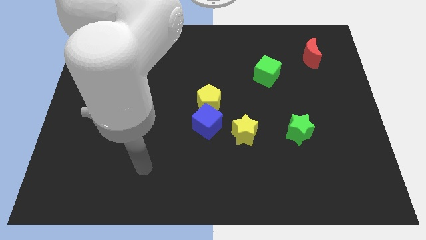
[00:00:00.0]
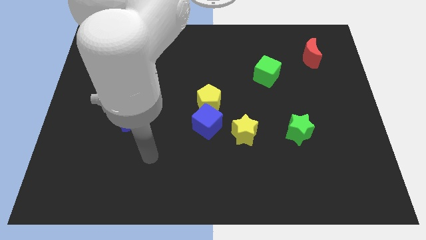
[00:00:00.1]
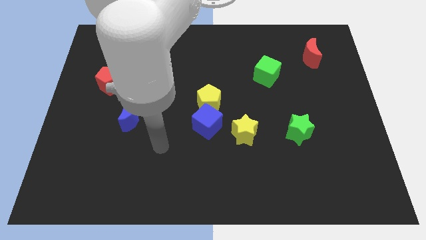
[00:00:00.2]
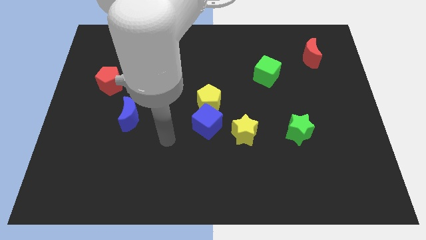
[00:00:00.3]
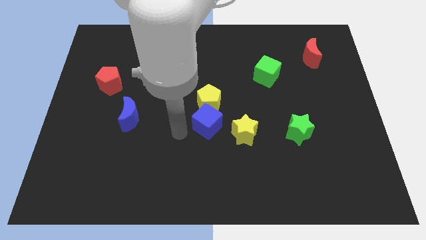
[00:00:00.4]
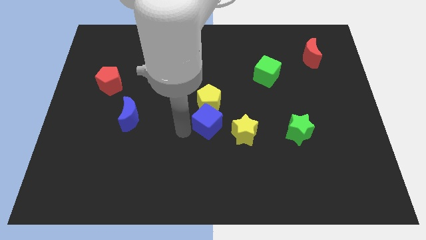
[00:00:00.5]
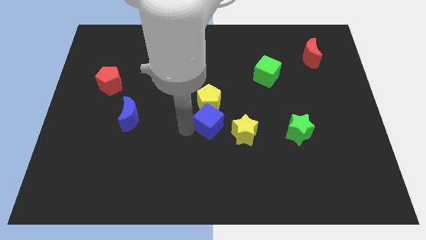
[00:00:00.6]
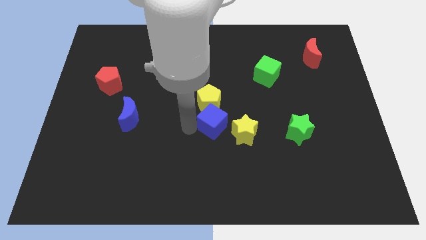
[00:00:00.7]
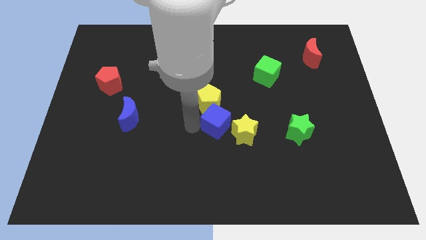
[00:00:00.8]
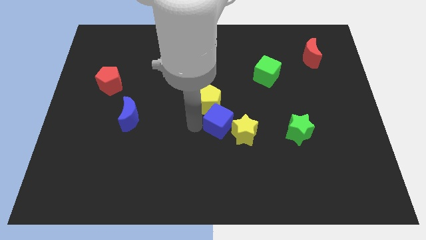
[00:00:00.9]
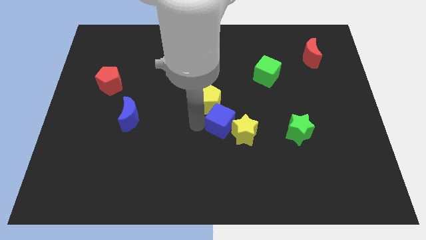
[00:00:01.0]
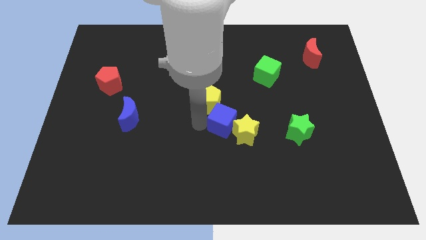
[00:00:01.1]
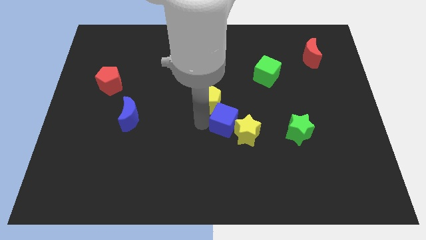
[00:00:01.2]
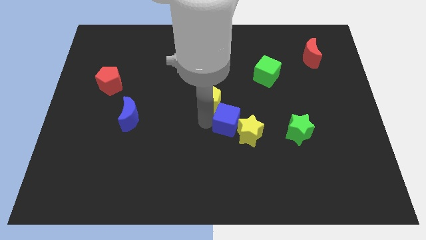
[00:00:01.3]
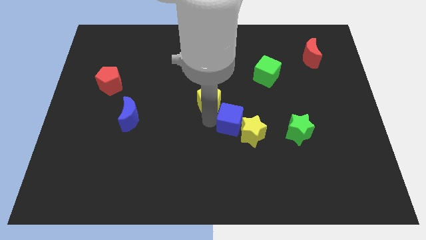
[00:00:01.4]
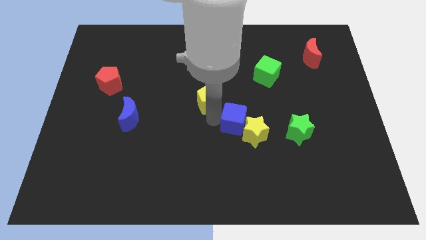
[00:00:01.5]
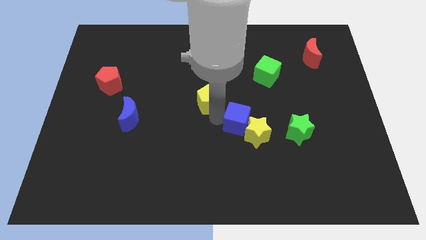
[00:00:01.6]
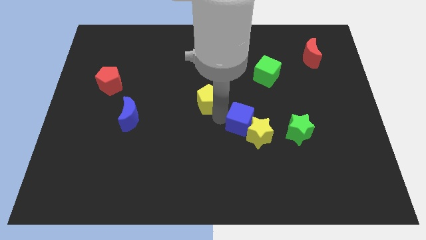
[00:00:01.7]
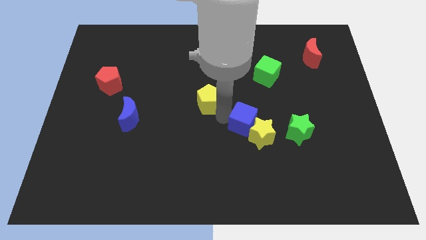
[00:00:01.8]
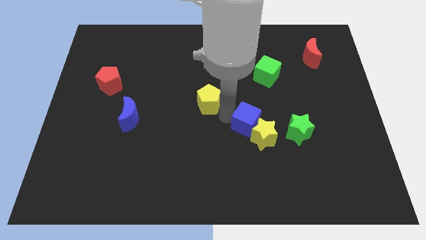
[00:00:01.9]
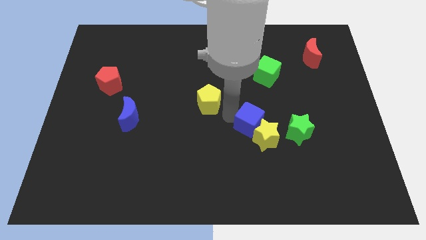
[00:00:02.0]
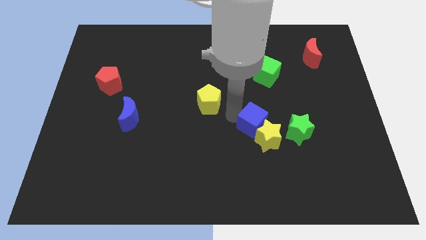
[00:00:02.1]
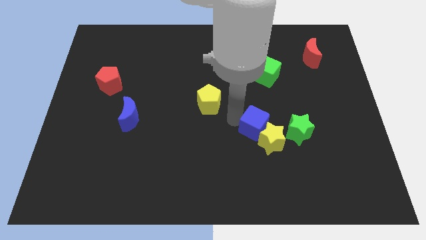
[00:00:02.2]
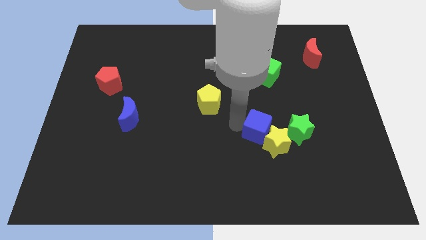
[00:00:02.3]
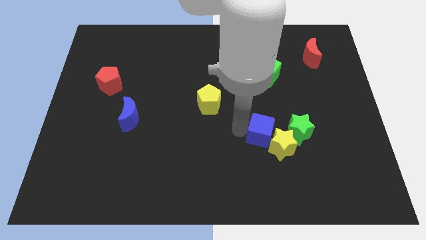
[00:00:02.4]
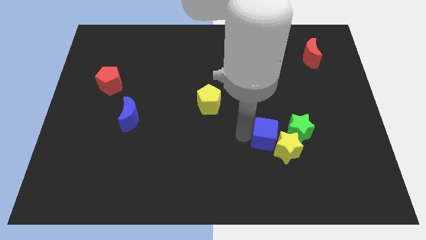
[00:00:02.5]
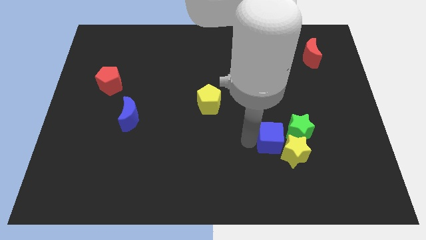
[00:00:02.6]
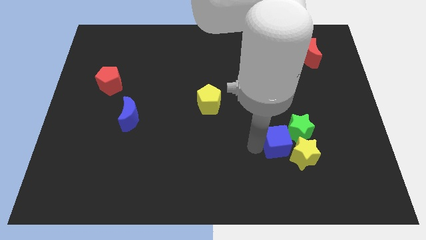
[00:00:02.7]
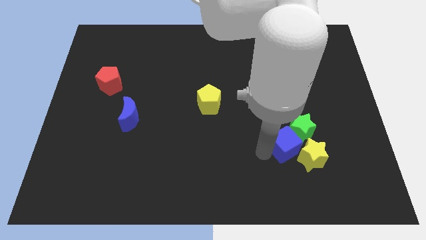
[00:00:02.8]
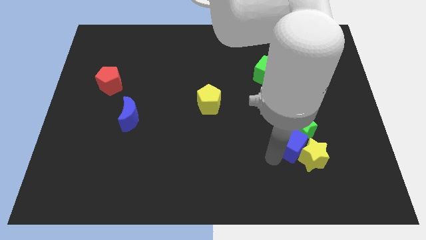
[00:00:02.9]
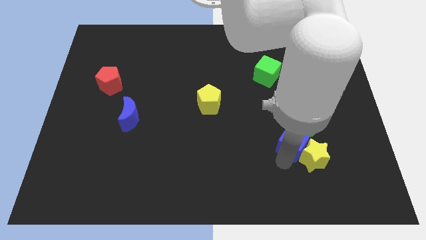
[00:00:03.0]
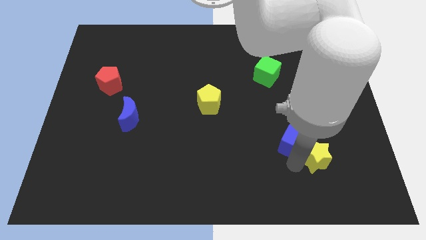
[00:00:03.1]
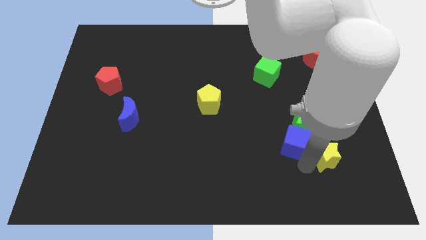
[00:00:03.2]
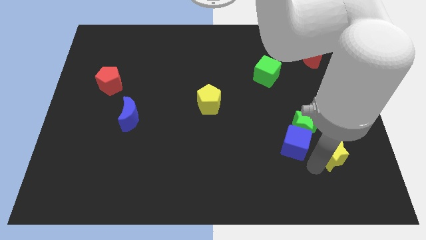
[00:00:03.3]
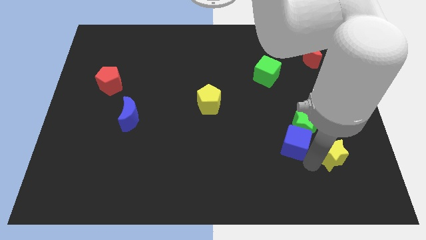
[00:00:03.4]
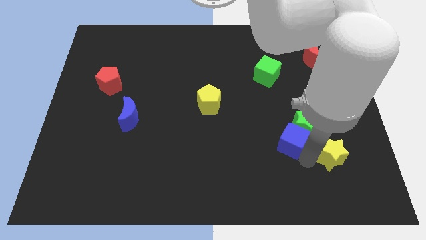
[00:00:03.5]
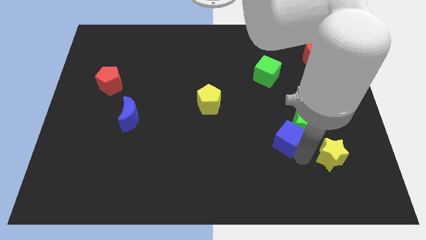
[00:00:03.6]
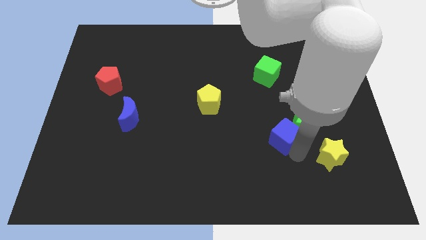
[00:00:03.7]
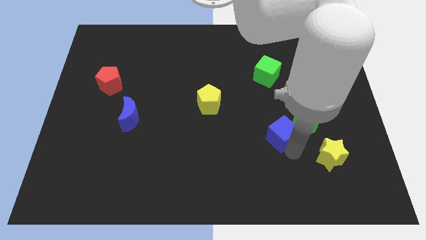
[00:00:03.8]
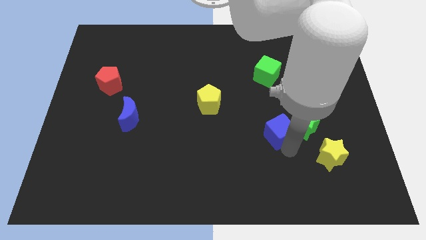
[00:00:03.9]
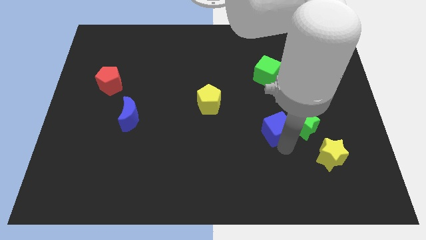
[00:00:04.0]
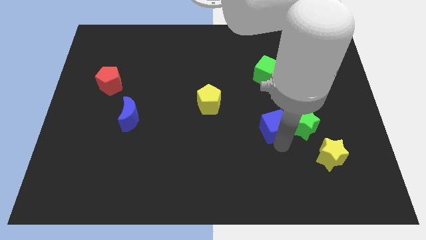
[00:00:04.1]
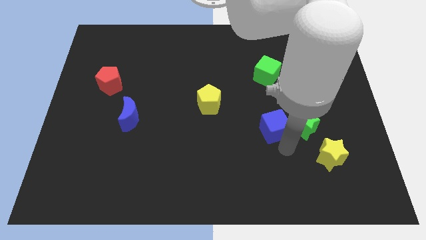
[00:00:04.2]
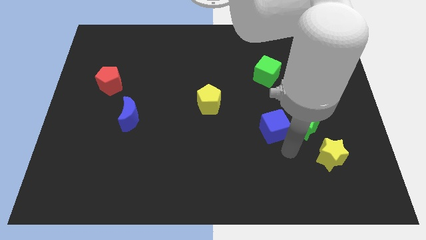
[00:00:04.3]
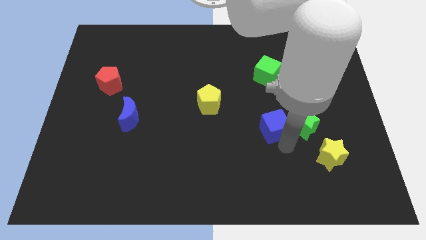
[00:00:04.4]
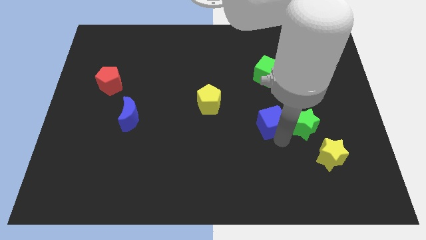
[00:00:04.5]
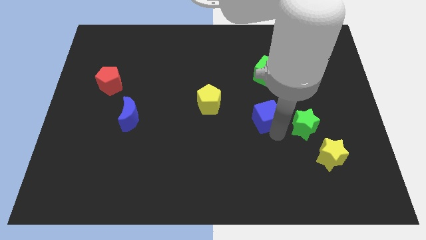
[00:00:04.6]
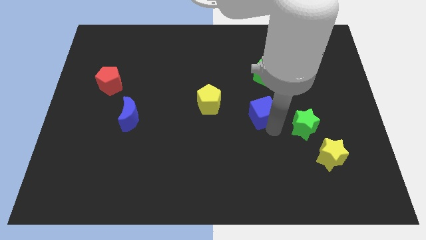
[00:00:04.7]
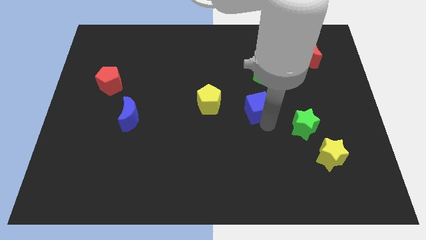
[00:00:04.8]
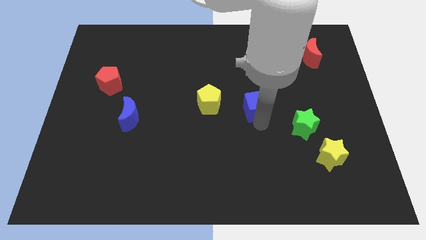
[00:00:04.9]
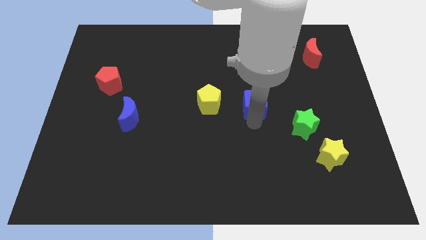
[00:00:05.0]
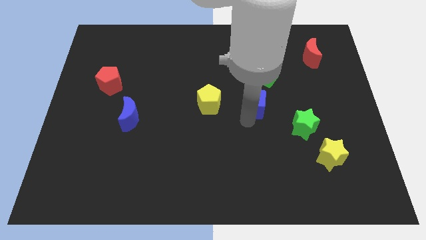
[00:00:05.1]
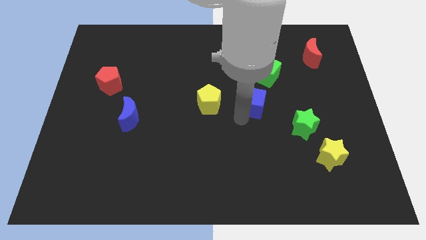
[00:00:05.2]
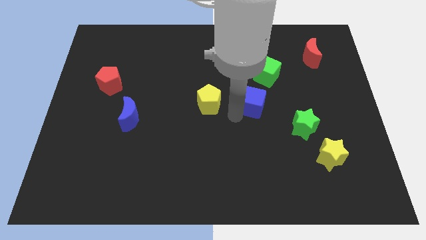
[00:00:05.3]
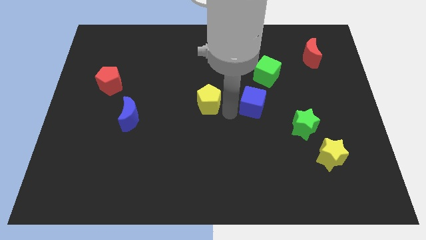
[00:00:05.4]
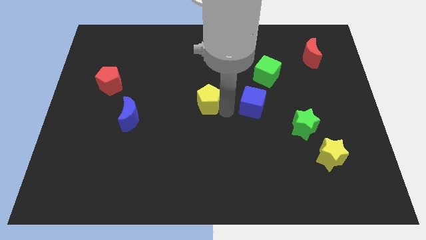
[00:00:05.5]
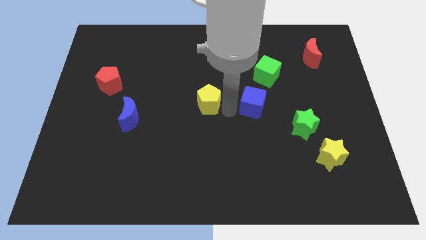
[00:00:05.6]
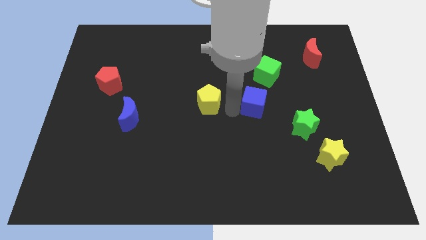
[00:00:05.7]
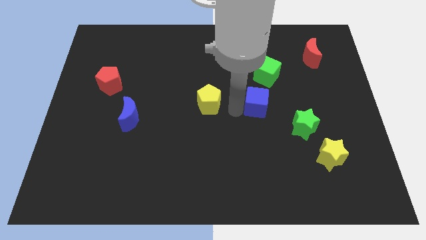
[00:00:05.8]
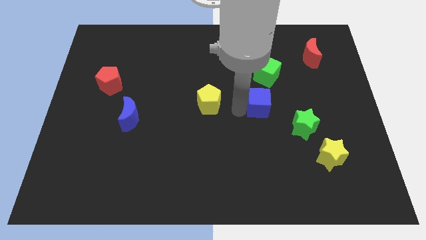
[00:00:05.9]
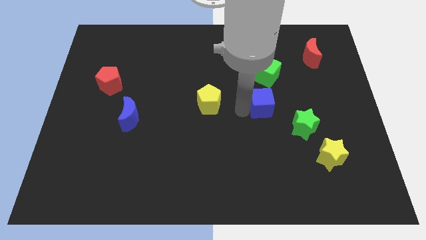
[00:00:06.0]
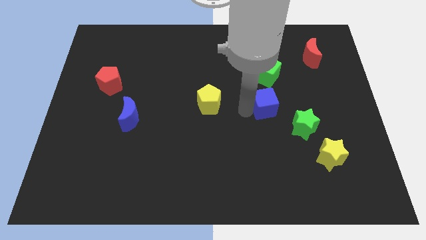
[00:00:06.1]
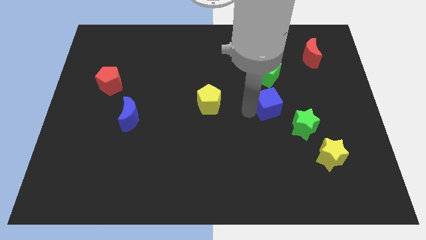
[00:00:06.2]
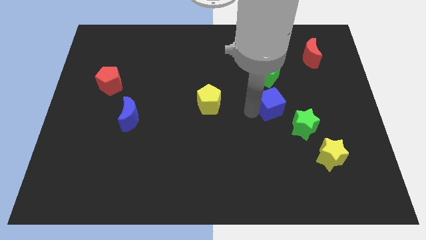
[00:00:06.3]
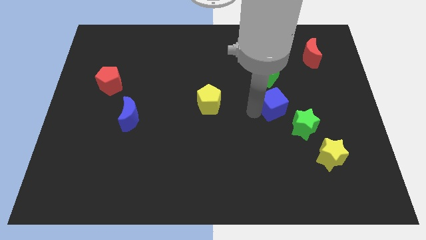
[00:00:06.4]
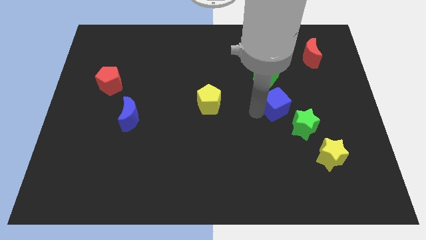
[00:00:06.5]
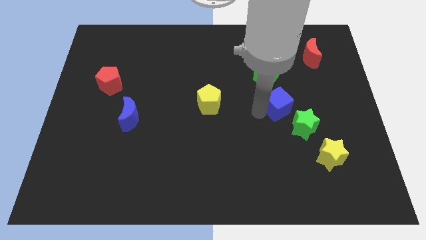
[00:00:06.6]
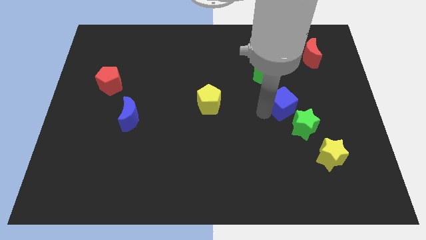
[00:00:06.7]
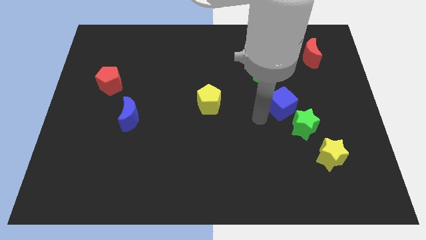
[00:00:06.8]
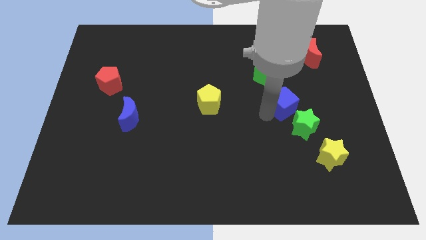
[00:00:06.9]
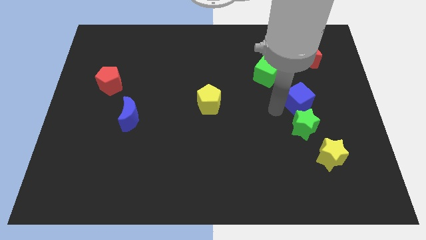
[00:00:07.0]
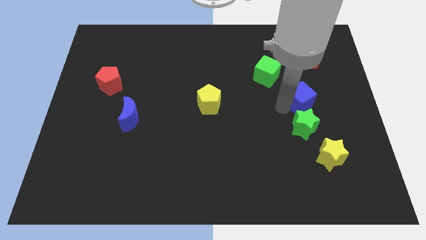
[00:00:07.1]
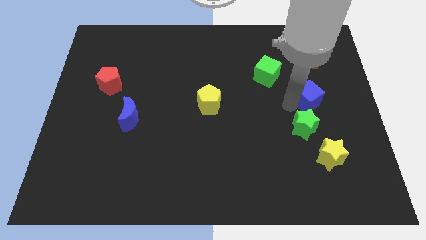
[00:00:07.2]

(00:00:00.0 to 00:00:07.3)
put the blue cube to the bottom side of the red moon
